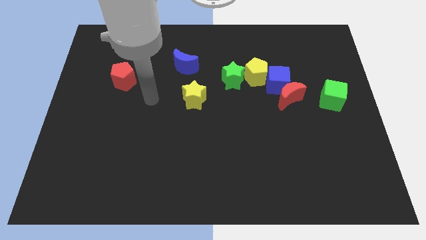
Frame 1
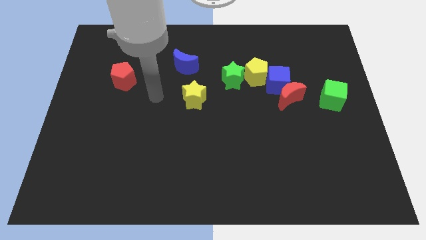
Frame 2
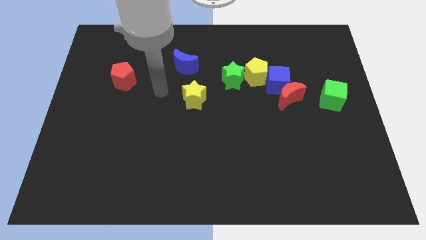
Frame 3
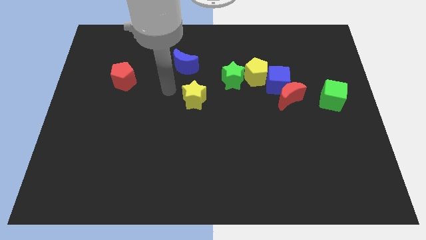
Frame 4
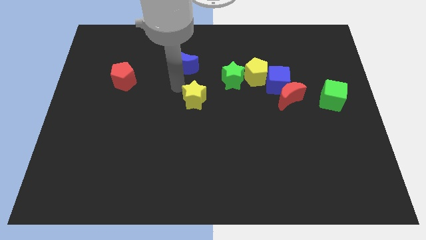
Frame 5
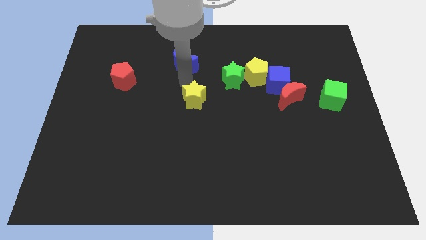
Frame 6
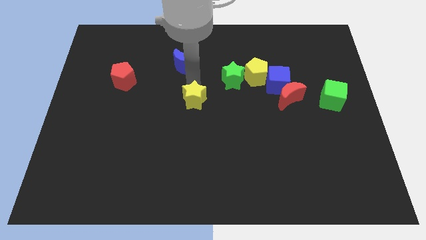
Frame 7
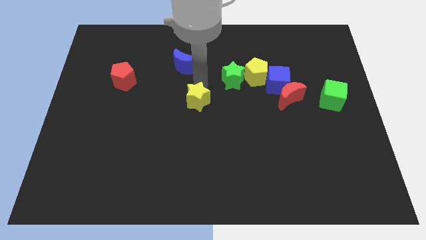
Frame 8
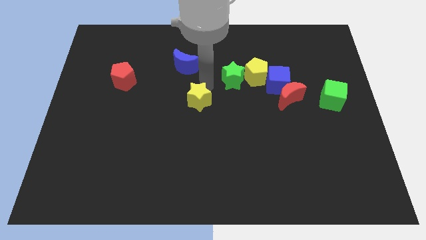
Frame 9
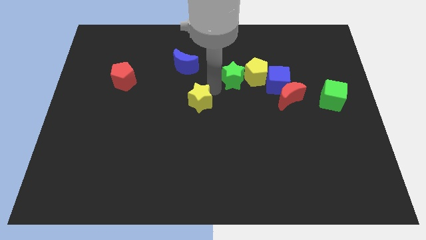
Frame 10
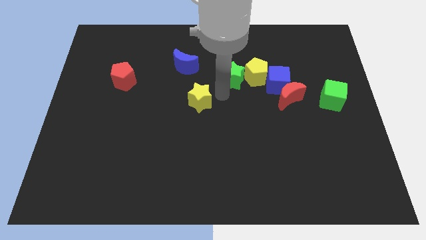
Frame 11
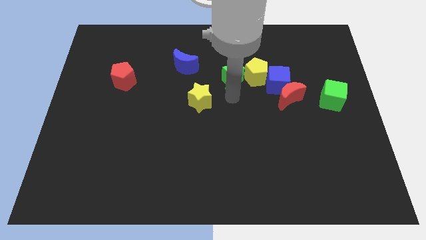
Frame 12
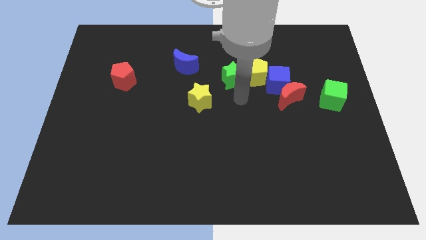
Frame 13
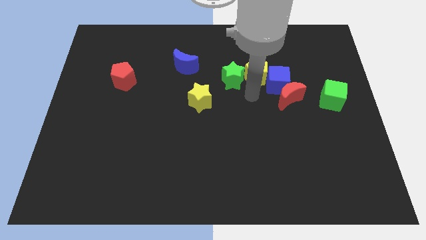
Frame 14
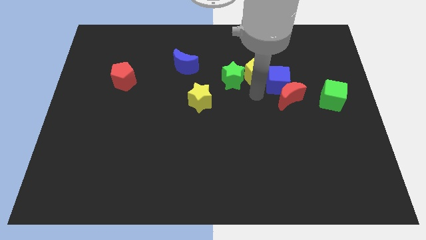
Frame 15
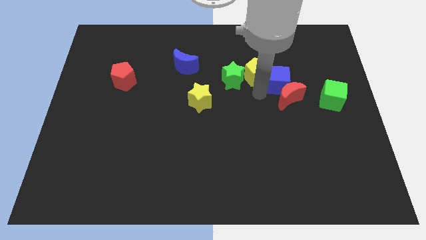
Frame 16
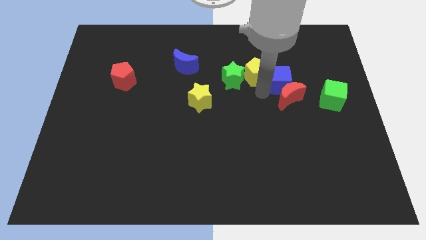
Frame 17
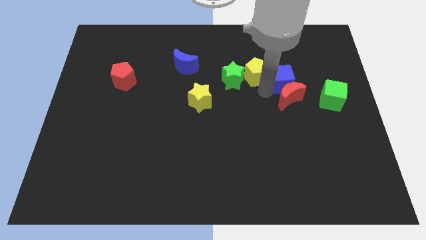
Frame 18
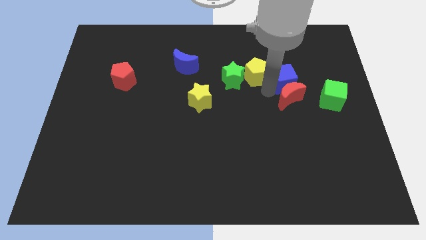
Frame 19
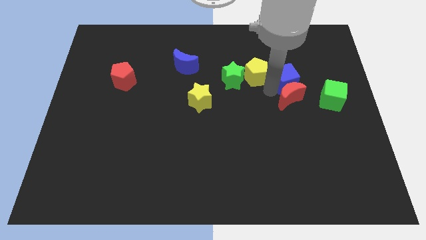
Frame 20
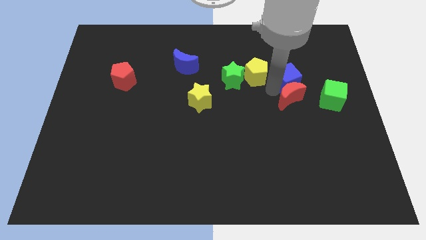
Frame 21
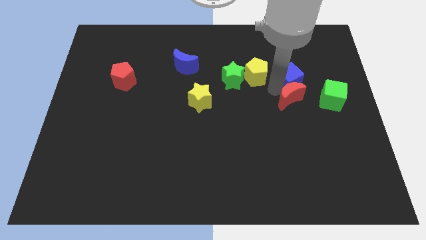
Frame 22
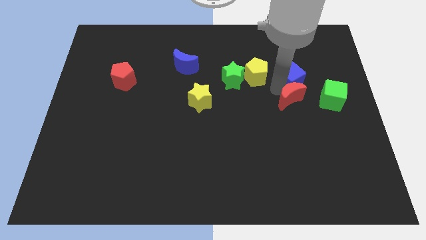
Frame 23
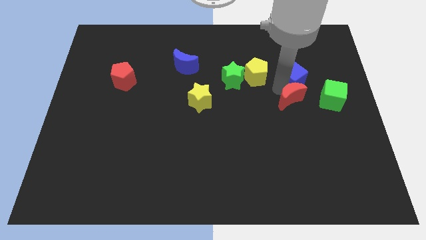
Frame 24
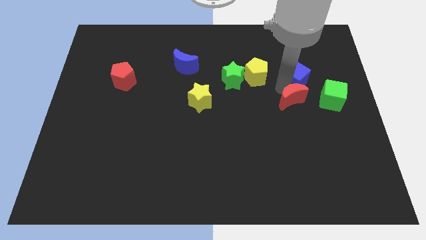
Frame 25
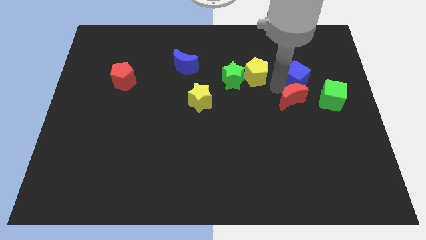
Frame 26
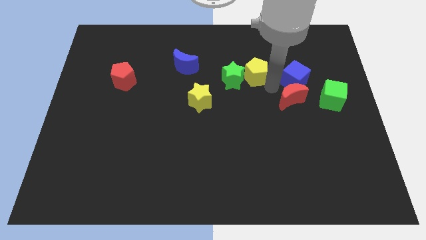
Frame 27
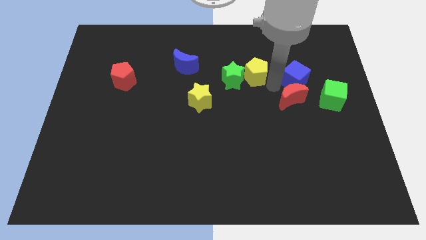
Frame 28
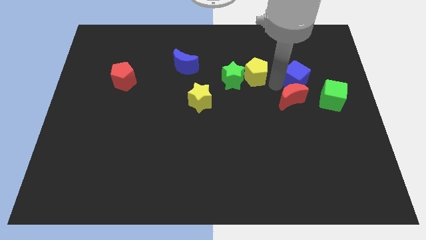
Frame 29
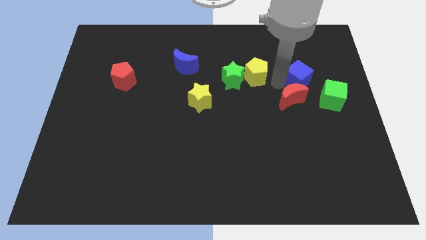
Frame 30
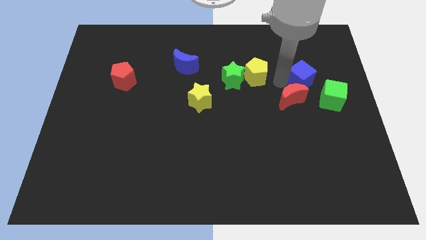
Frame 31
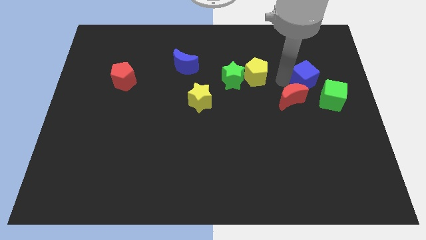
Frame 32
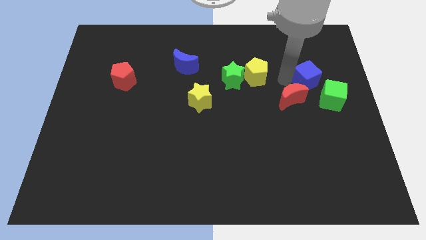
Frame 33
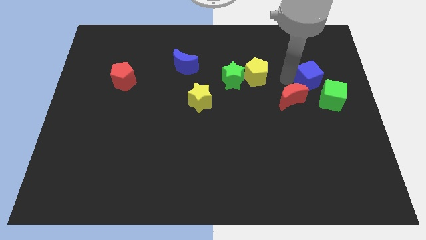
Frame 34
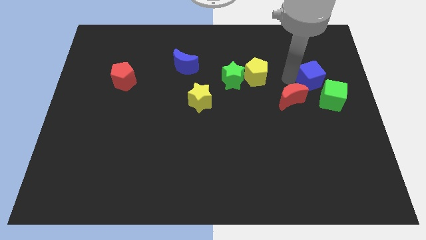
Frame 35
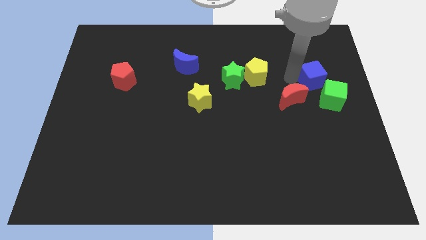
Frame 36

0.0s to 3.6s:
move the blue cube away from the red moon and yellow pentagon

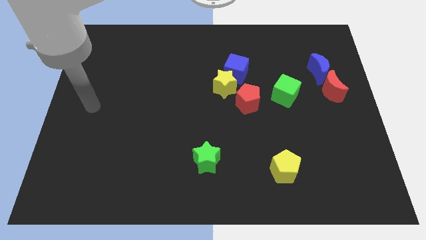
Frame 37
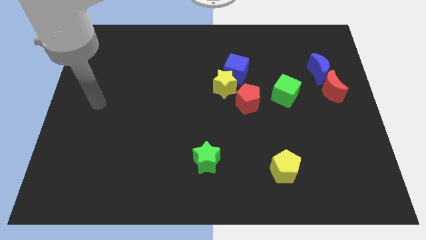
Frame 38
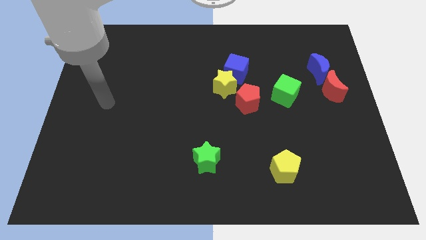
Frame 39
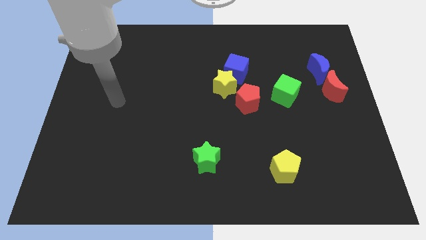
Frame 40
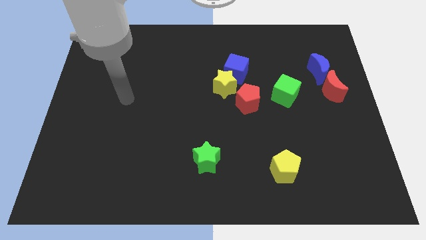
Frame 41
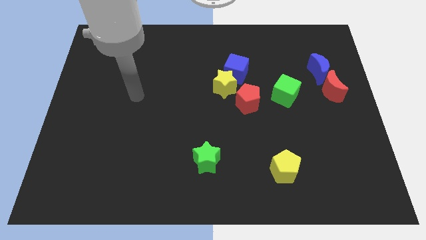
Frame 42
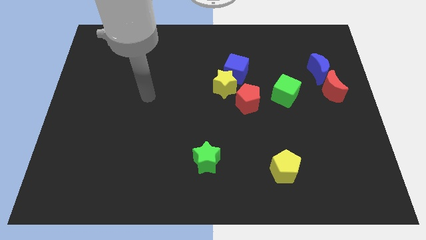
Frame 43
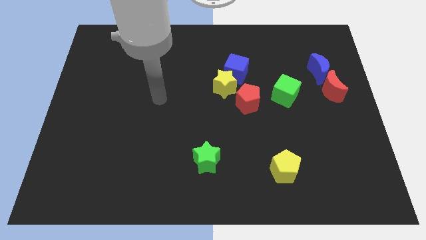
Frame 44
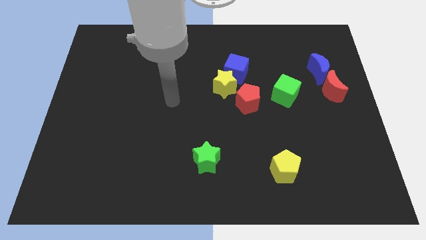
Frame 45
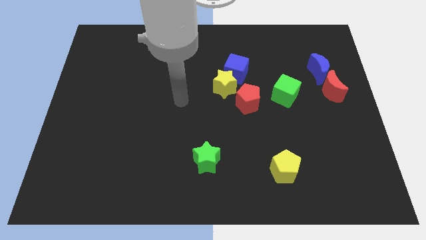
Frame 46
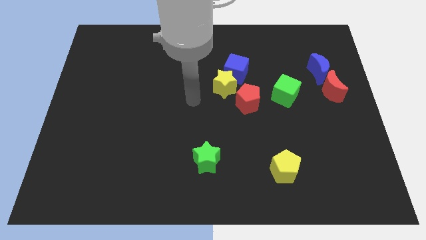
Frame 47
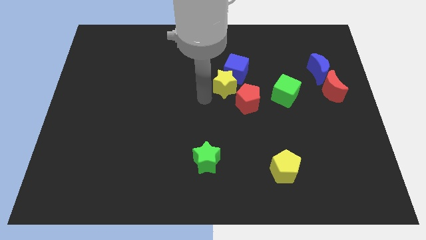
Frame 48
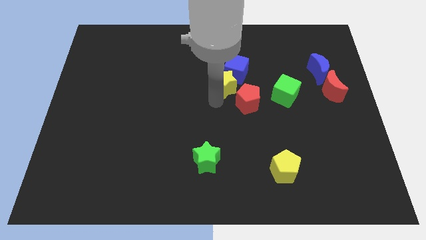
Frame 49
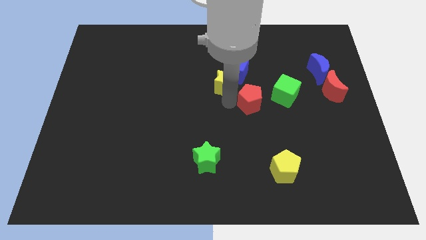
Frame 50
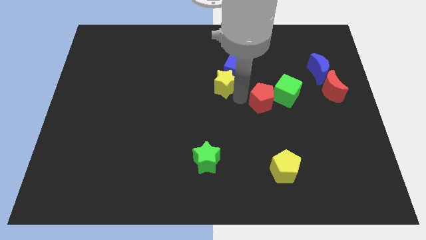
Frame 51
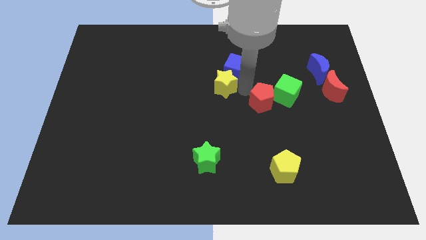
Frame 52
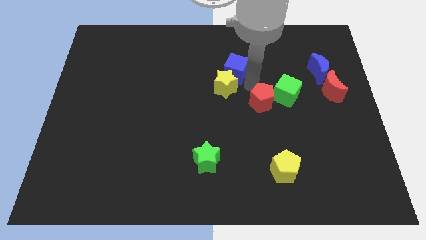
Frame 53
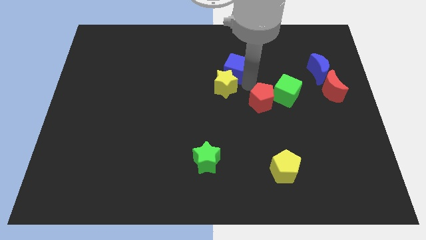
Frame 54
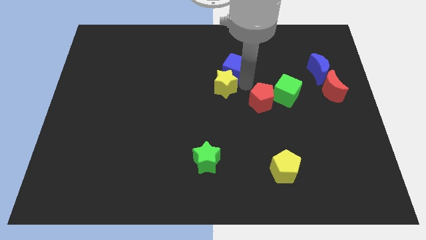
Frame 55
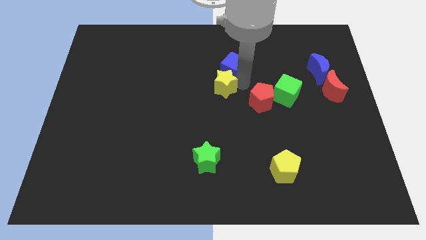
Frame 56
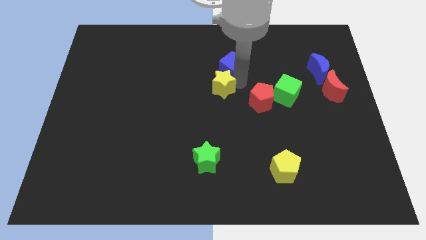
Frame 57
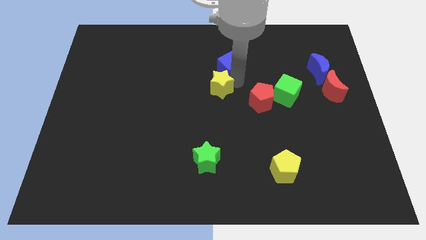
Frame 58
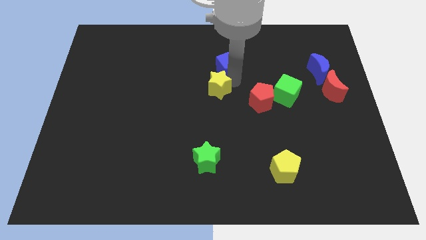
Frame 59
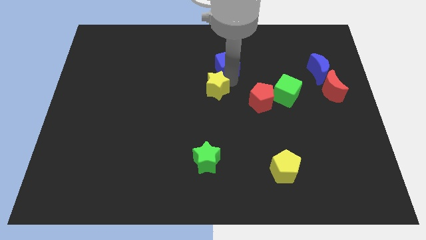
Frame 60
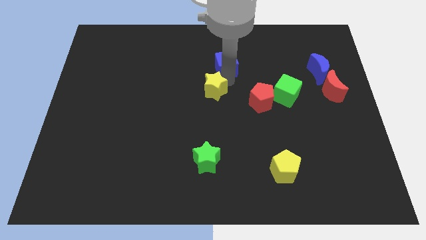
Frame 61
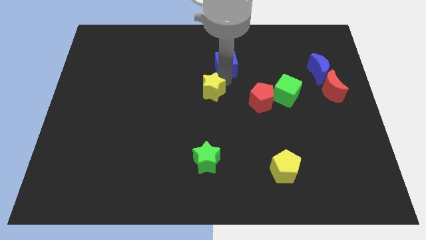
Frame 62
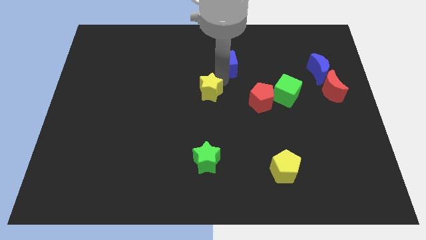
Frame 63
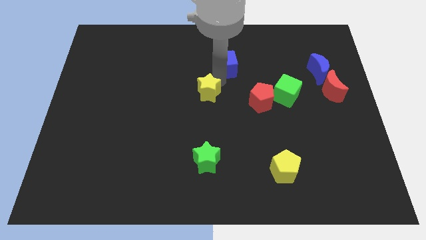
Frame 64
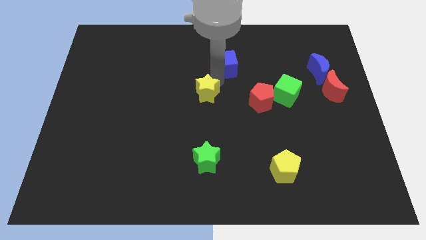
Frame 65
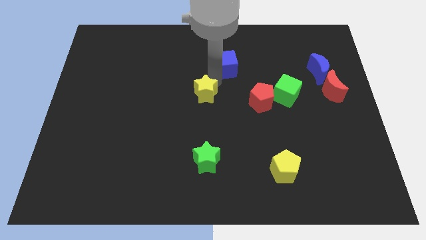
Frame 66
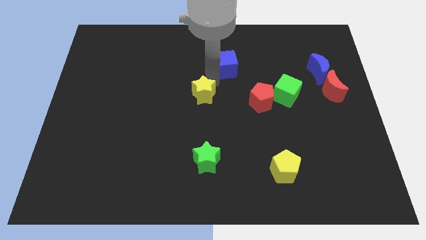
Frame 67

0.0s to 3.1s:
move the yellow star away from the blue cube and red pentagon

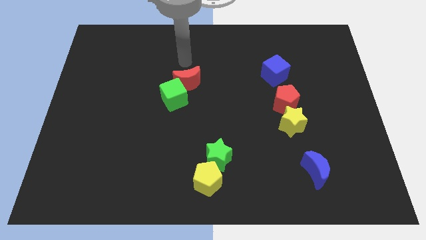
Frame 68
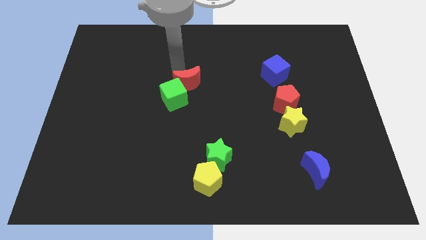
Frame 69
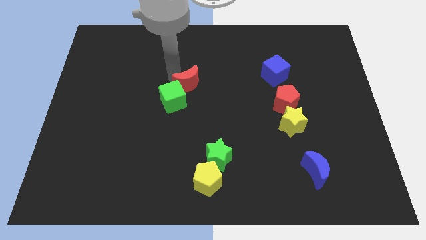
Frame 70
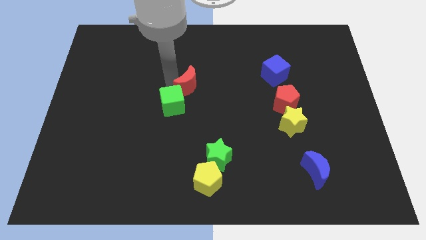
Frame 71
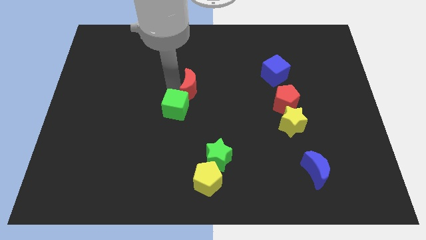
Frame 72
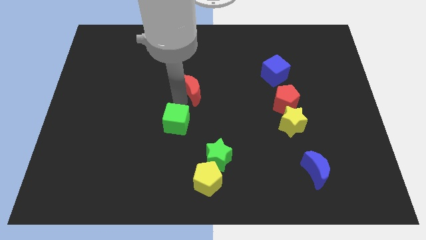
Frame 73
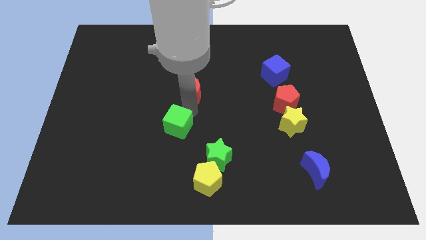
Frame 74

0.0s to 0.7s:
separate the red moon from the green cube

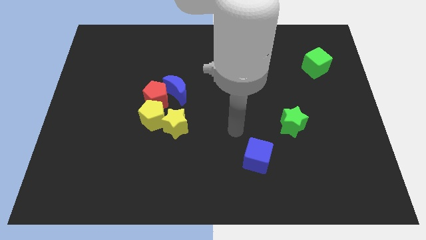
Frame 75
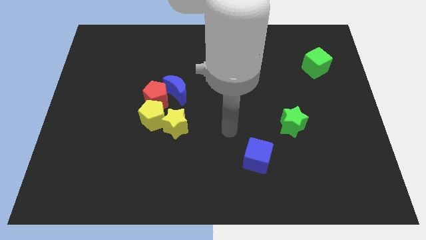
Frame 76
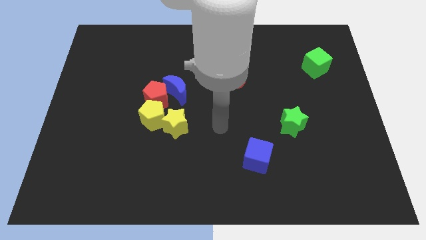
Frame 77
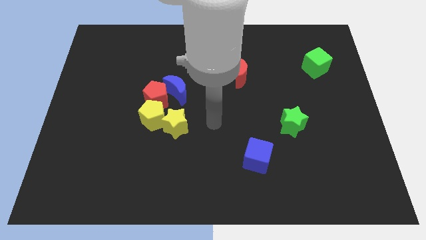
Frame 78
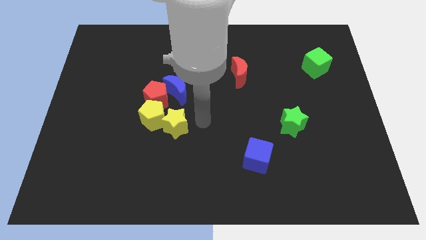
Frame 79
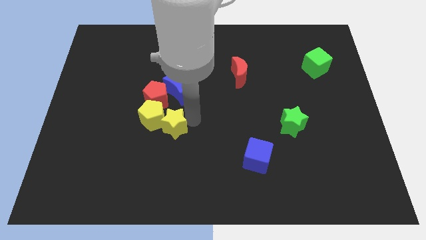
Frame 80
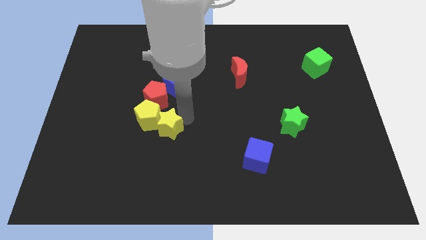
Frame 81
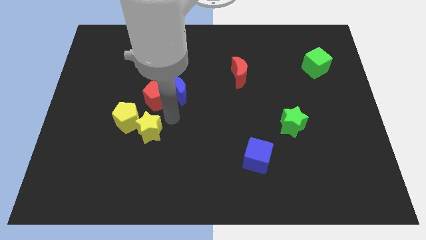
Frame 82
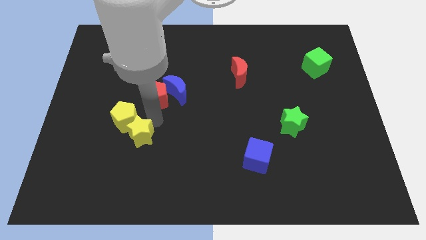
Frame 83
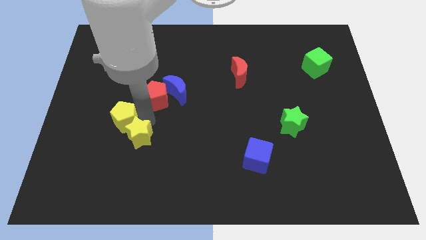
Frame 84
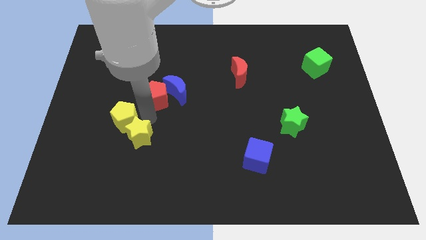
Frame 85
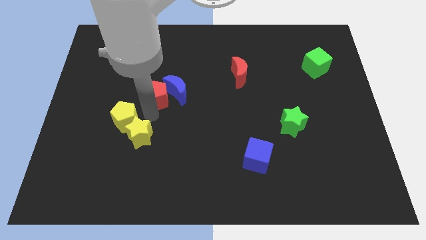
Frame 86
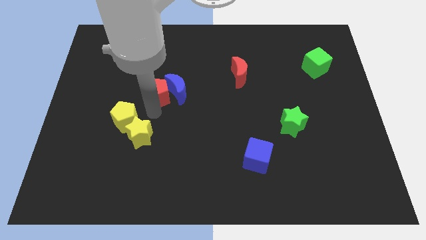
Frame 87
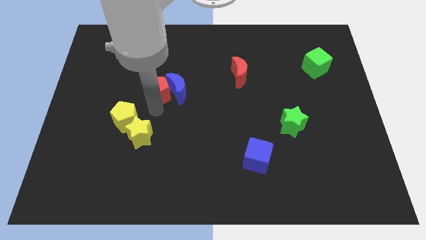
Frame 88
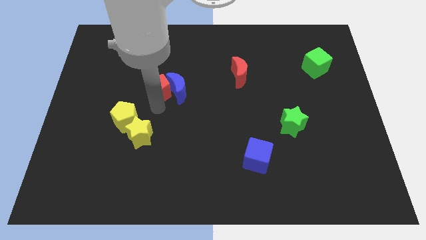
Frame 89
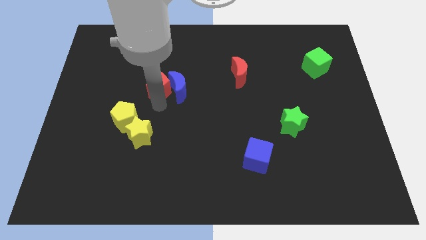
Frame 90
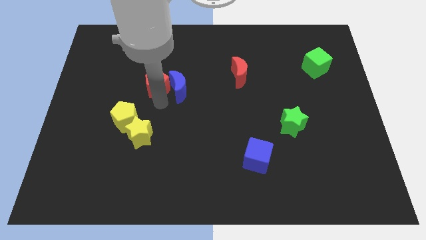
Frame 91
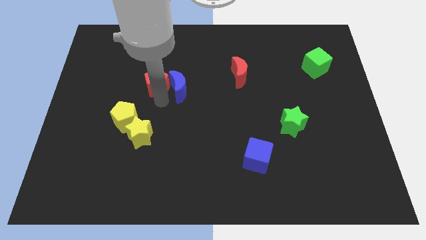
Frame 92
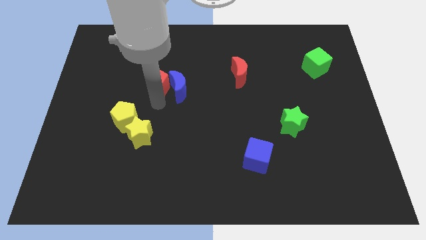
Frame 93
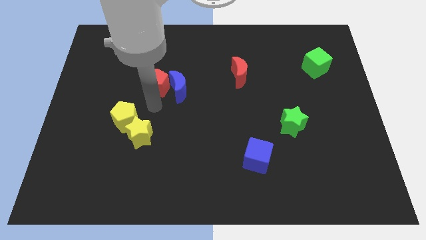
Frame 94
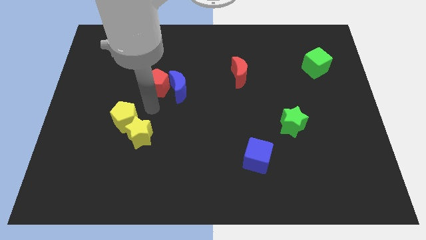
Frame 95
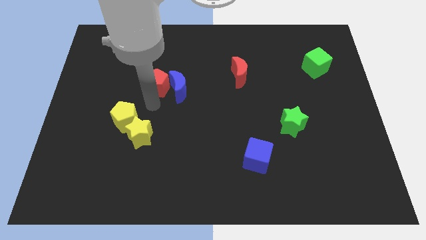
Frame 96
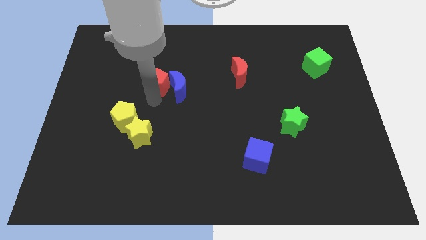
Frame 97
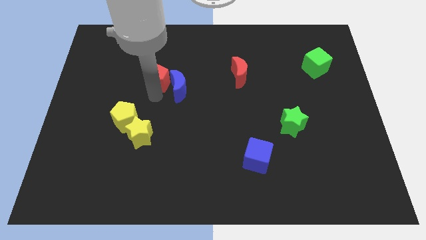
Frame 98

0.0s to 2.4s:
separate the red pentagon from the yellow pentagon, blue moon, and yellow star
